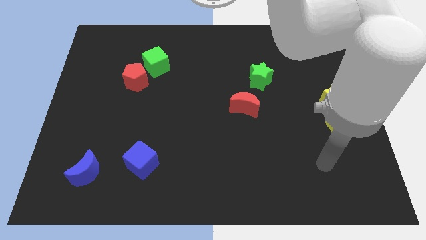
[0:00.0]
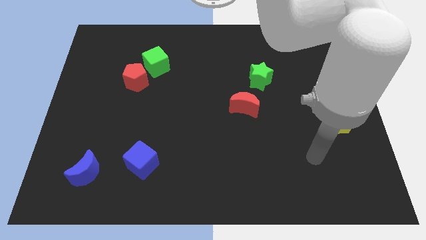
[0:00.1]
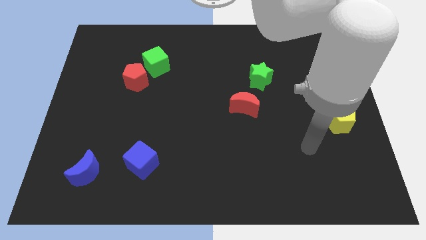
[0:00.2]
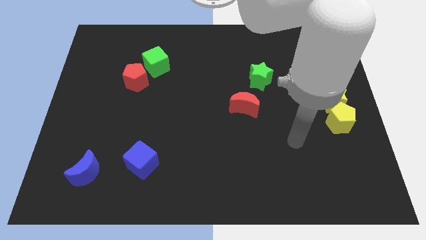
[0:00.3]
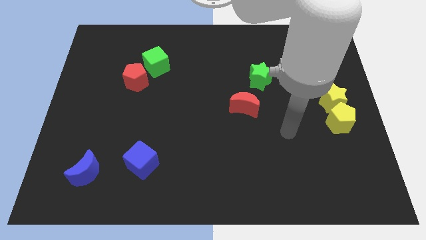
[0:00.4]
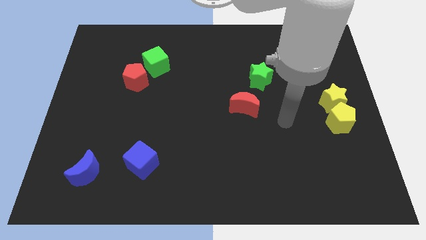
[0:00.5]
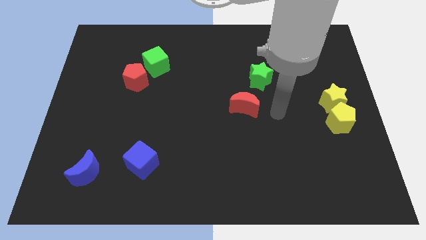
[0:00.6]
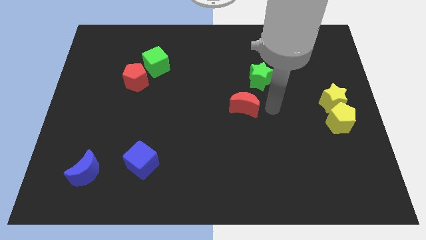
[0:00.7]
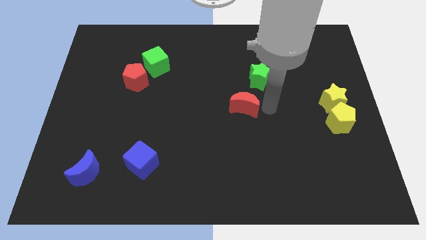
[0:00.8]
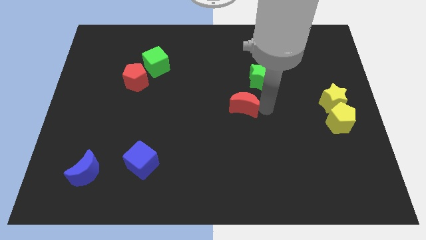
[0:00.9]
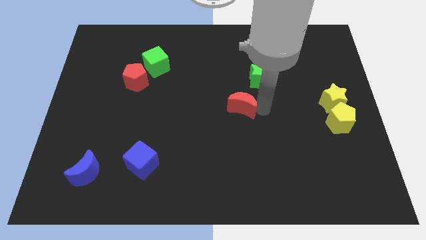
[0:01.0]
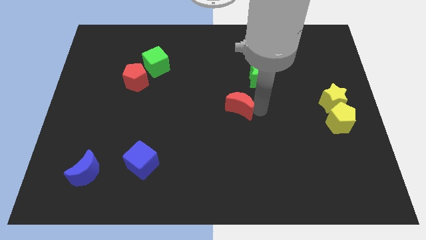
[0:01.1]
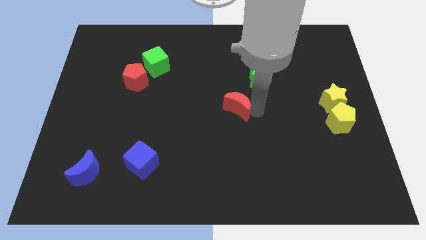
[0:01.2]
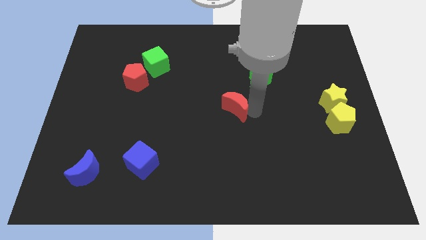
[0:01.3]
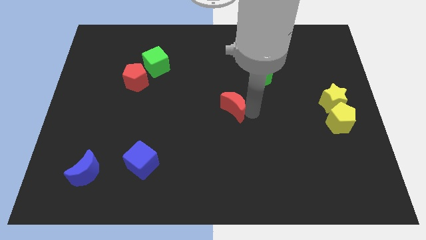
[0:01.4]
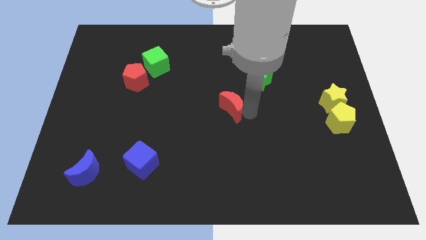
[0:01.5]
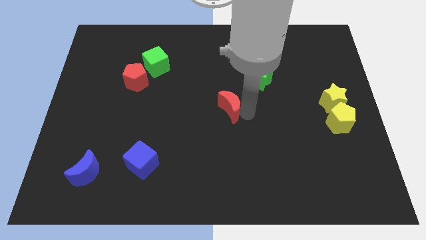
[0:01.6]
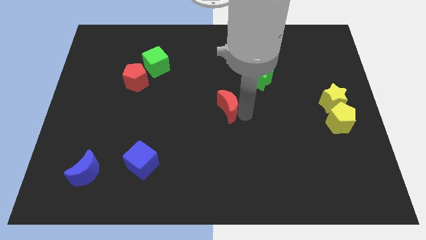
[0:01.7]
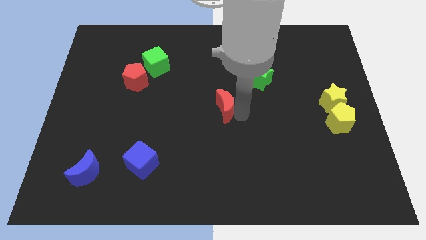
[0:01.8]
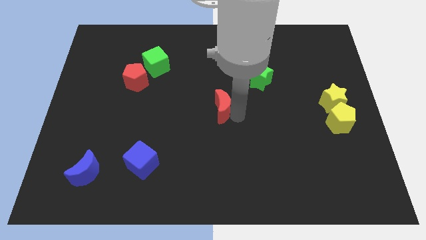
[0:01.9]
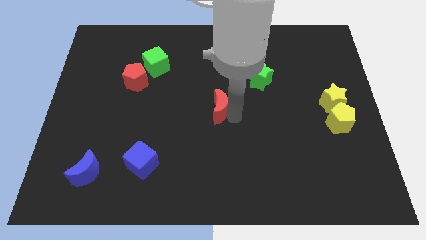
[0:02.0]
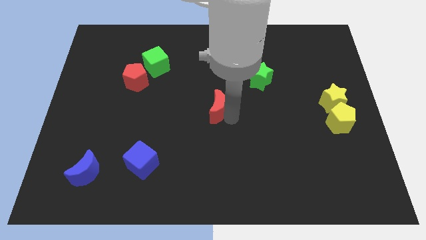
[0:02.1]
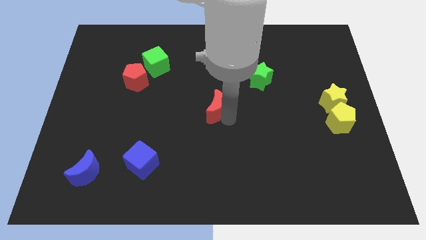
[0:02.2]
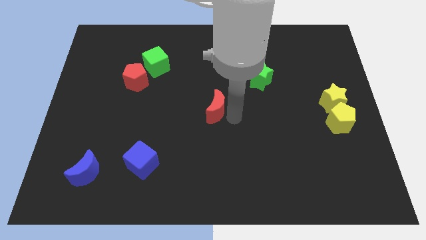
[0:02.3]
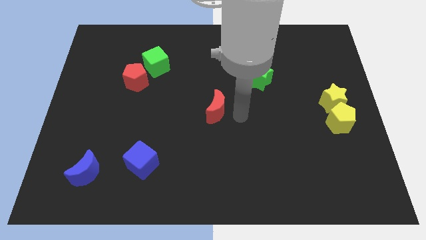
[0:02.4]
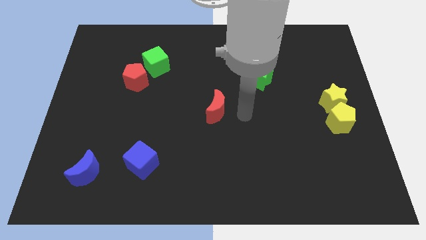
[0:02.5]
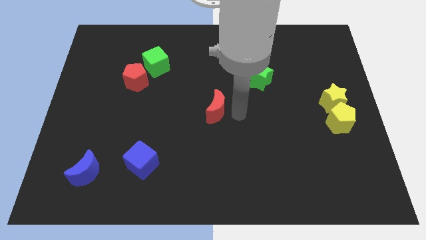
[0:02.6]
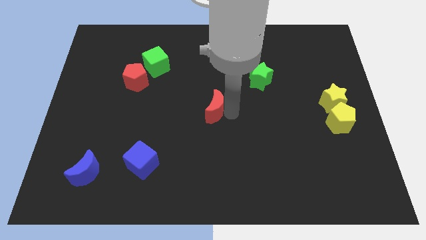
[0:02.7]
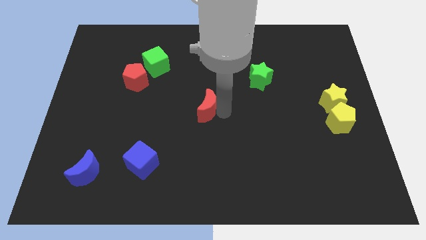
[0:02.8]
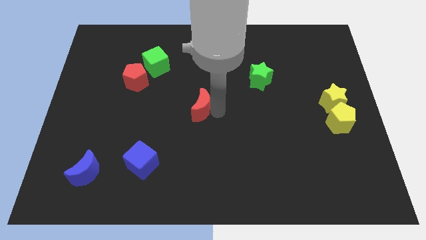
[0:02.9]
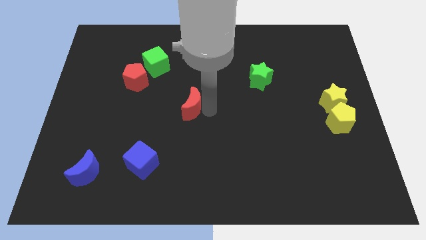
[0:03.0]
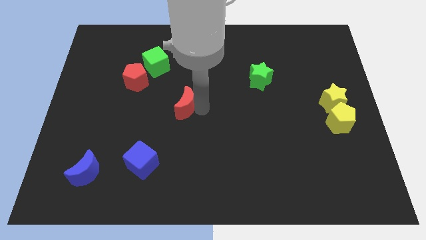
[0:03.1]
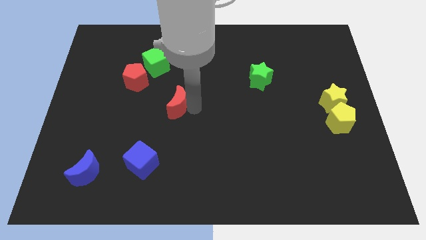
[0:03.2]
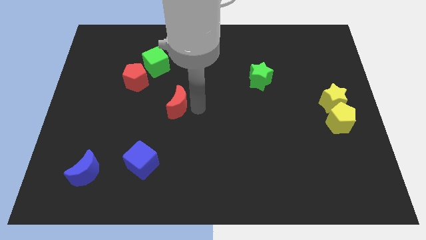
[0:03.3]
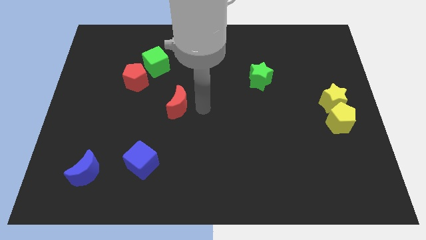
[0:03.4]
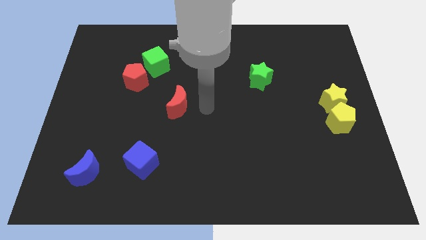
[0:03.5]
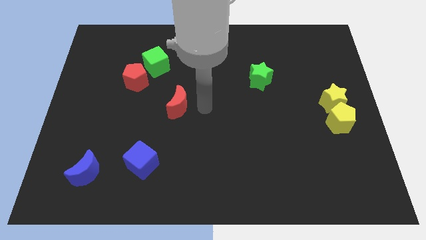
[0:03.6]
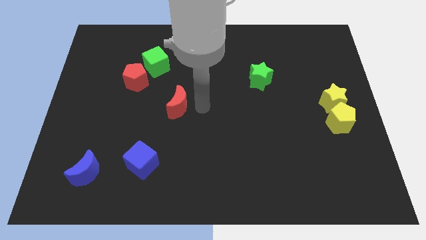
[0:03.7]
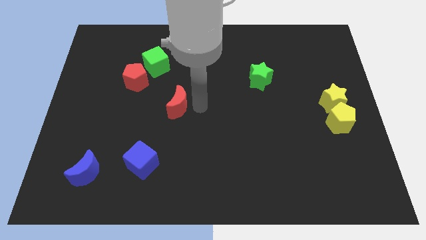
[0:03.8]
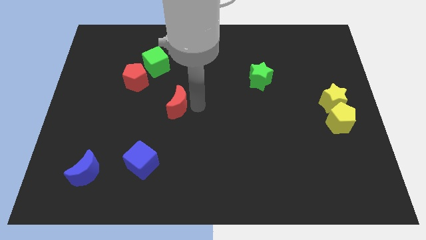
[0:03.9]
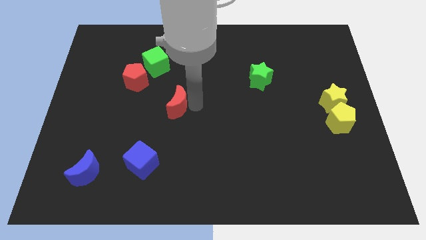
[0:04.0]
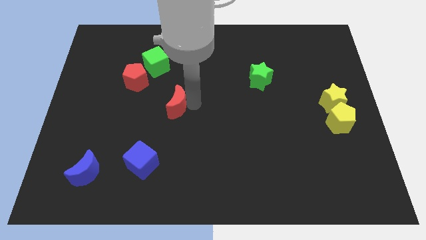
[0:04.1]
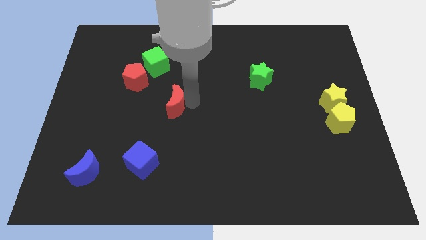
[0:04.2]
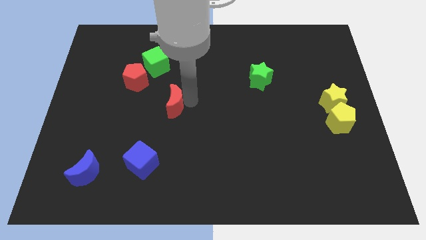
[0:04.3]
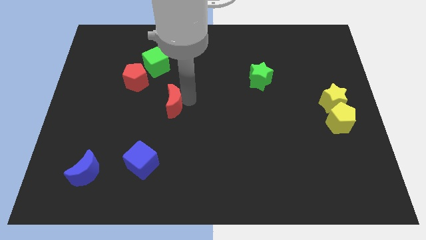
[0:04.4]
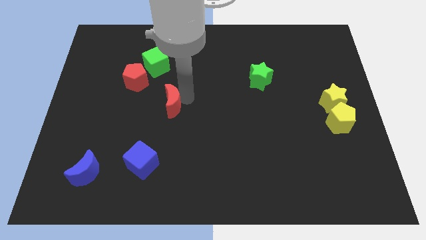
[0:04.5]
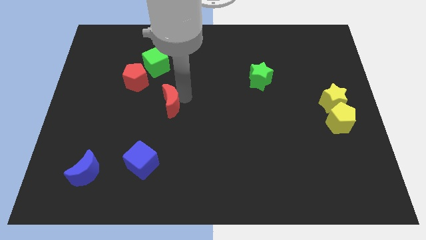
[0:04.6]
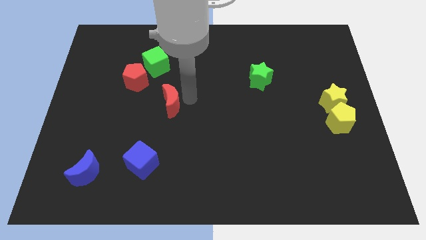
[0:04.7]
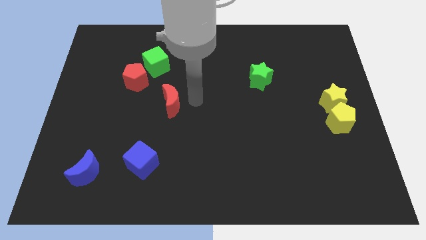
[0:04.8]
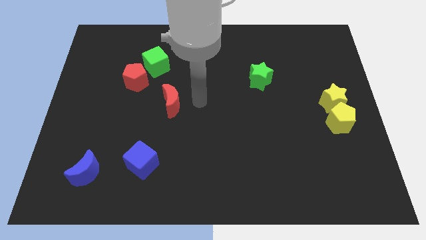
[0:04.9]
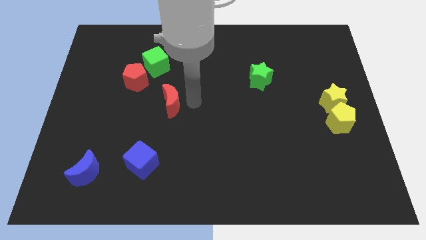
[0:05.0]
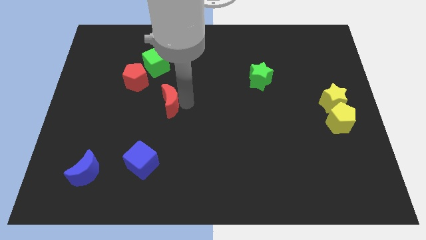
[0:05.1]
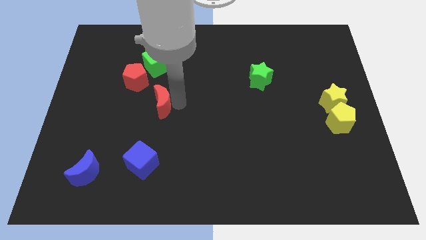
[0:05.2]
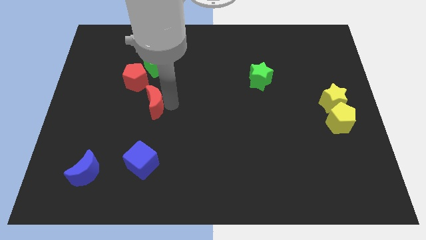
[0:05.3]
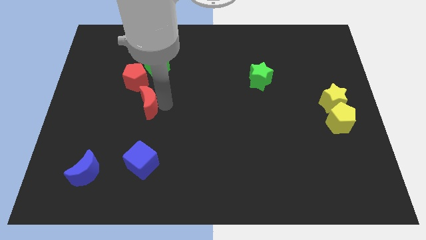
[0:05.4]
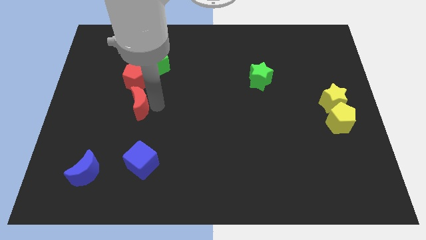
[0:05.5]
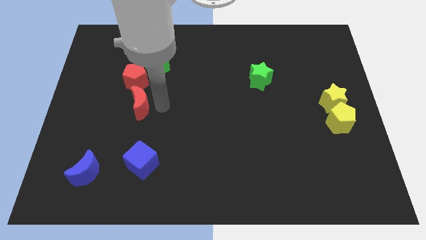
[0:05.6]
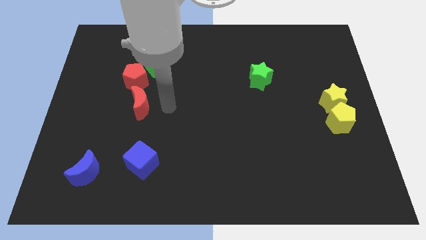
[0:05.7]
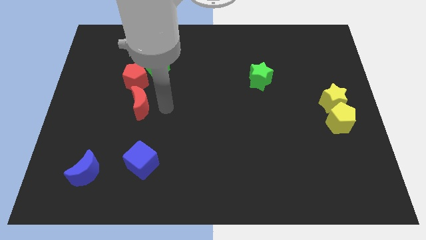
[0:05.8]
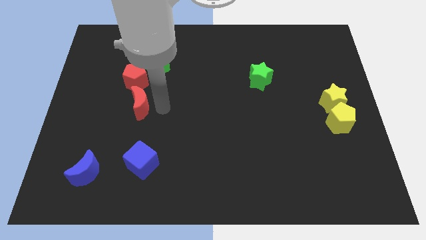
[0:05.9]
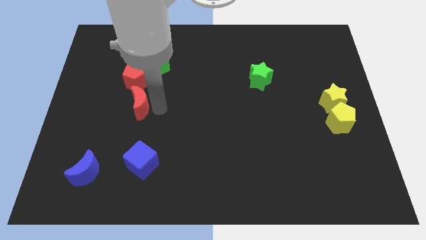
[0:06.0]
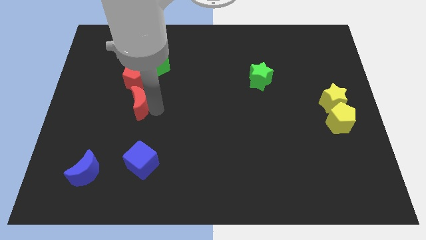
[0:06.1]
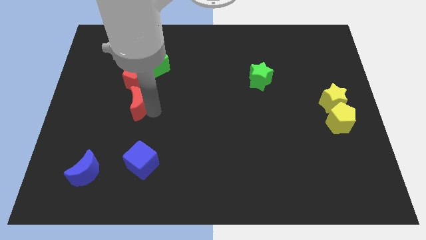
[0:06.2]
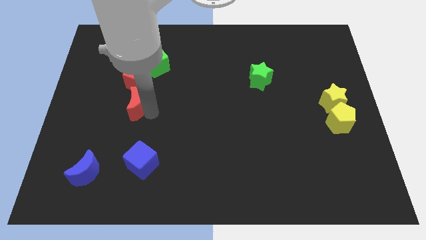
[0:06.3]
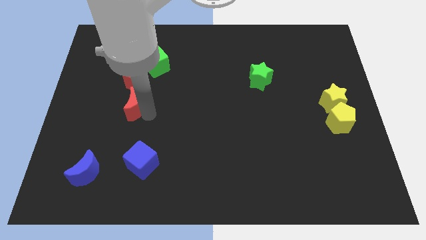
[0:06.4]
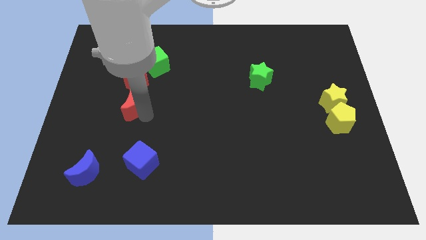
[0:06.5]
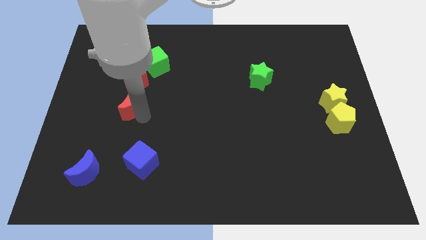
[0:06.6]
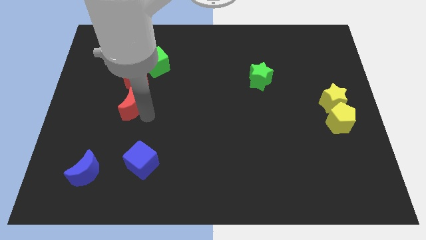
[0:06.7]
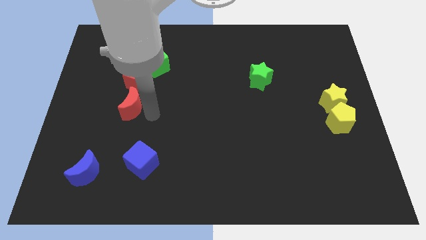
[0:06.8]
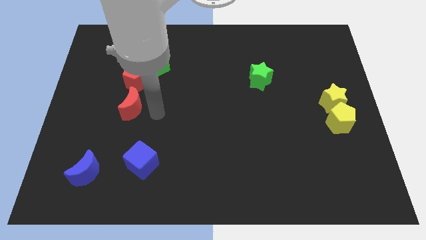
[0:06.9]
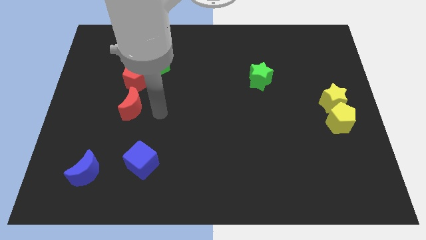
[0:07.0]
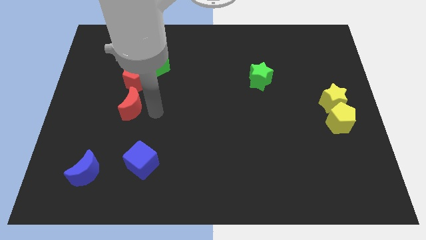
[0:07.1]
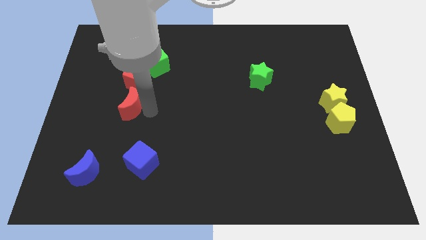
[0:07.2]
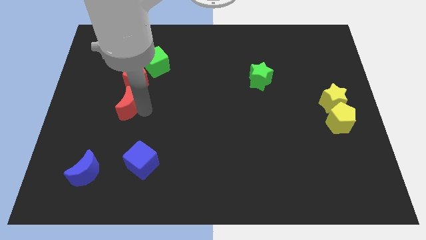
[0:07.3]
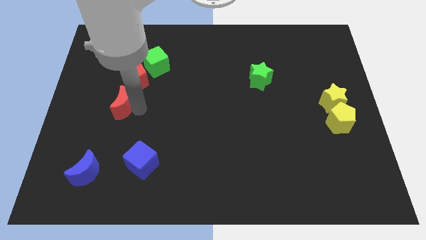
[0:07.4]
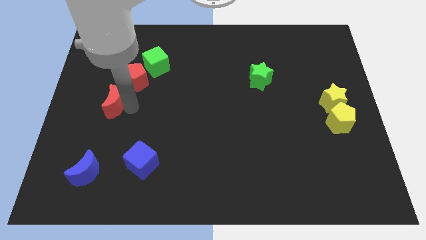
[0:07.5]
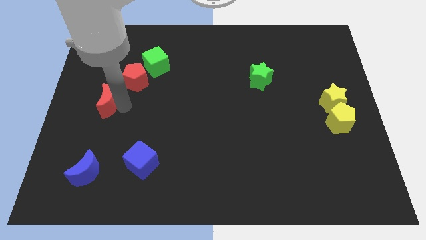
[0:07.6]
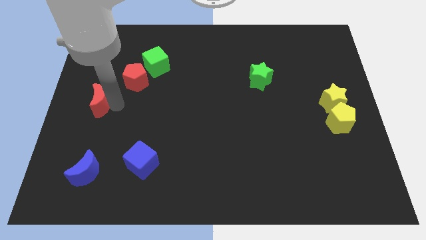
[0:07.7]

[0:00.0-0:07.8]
slide the red moon to the left side of the board
